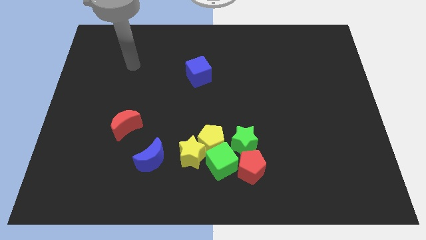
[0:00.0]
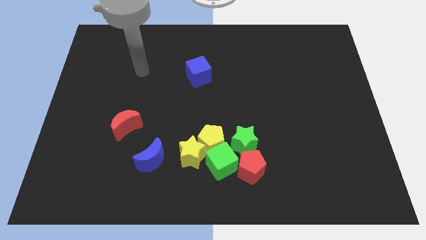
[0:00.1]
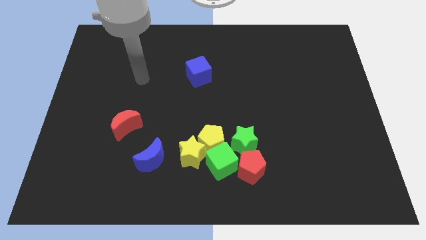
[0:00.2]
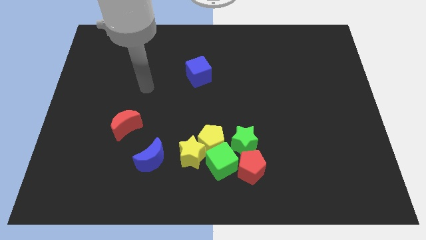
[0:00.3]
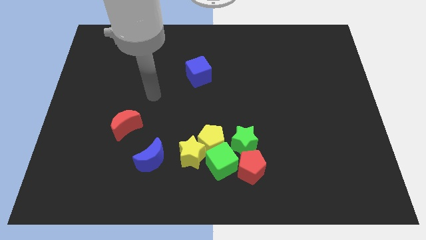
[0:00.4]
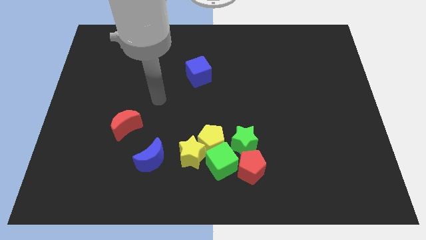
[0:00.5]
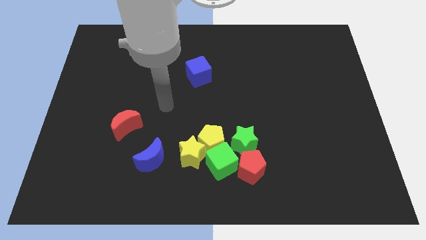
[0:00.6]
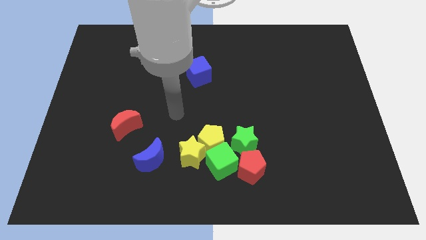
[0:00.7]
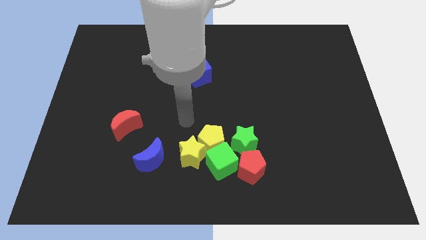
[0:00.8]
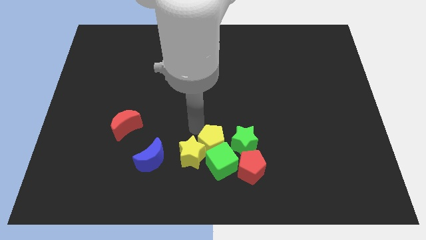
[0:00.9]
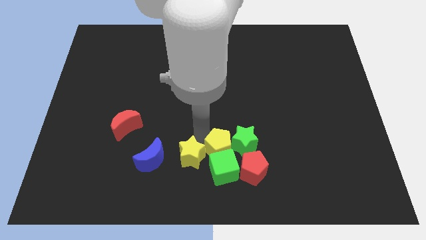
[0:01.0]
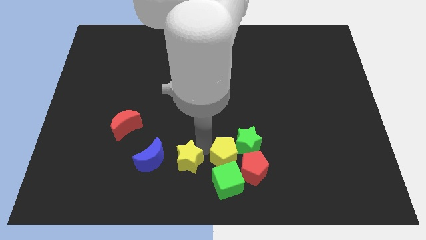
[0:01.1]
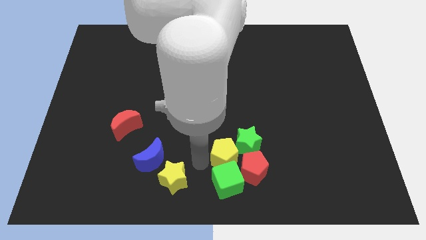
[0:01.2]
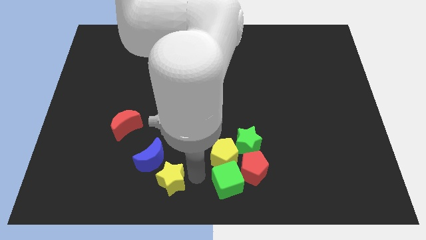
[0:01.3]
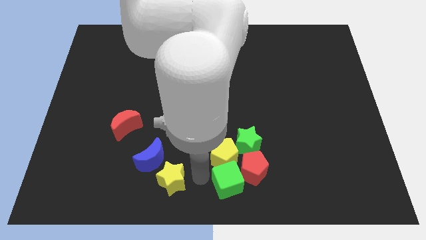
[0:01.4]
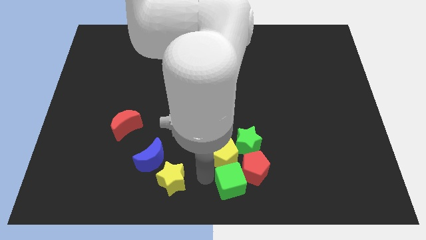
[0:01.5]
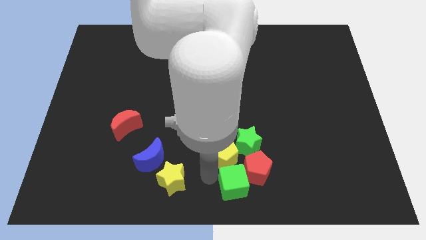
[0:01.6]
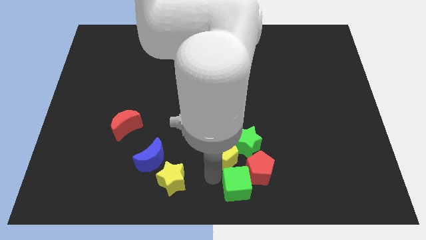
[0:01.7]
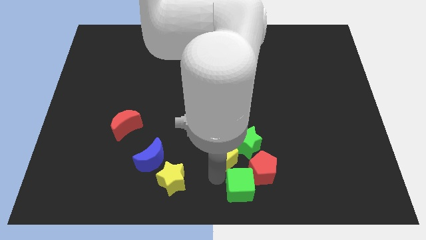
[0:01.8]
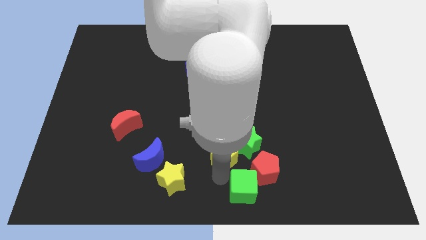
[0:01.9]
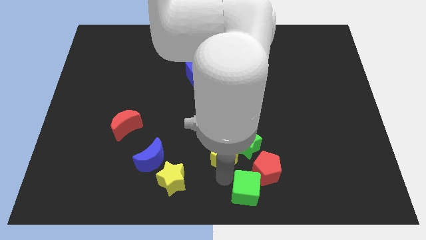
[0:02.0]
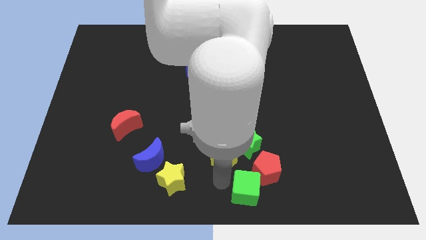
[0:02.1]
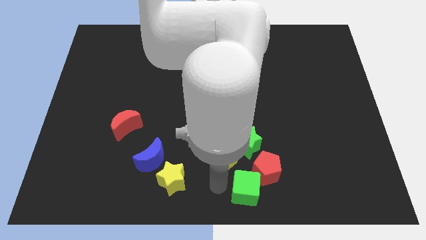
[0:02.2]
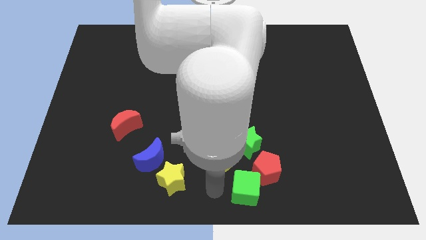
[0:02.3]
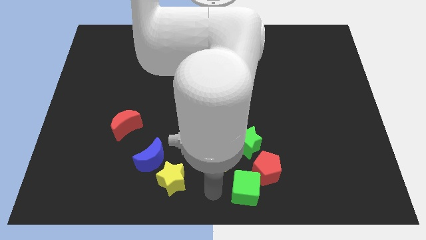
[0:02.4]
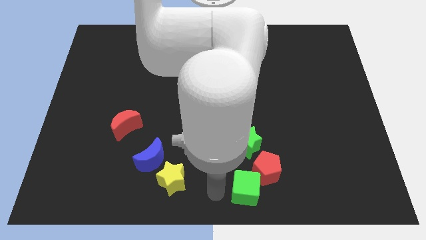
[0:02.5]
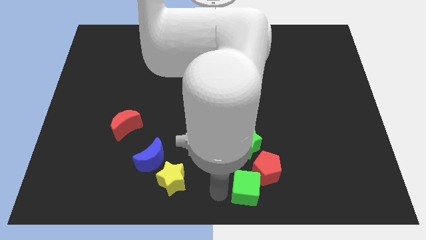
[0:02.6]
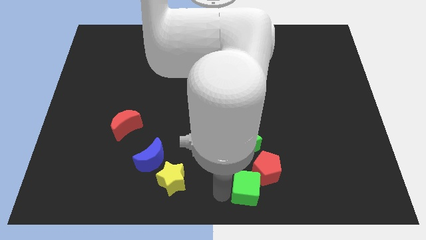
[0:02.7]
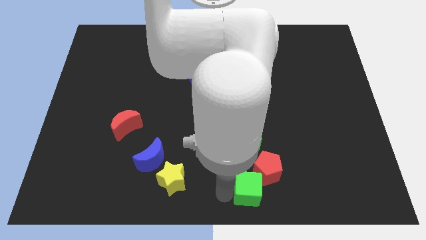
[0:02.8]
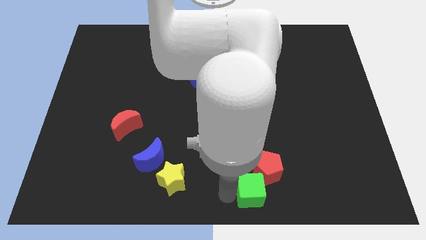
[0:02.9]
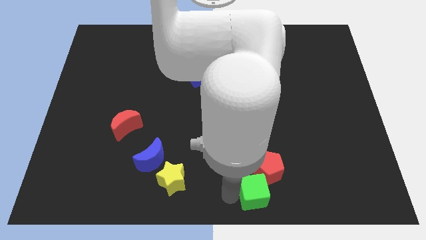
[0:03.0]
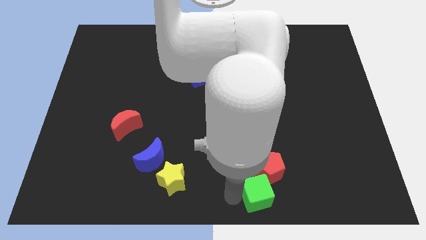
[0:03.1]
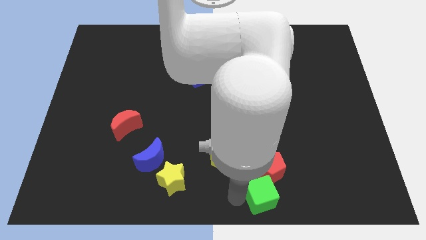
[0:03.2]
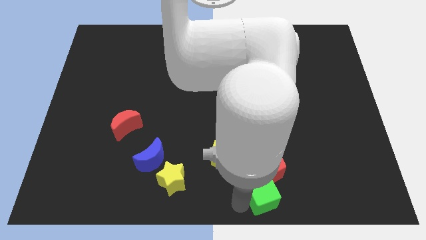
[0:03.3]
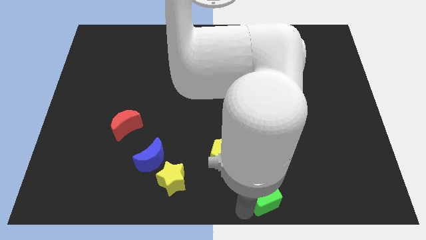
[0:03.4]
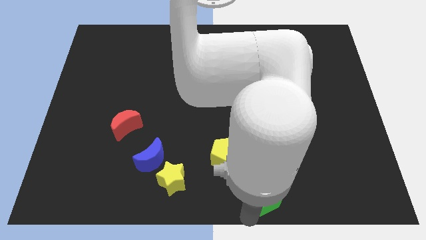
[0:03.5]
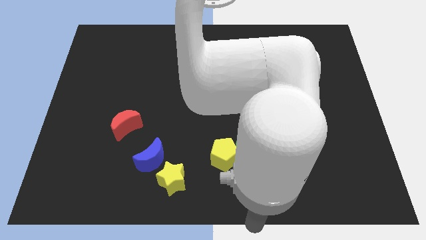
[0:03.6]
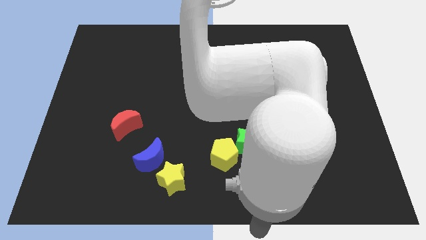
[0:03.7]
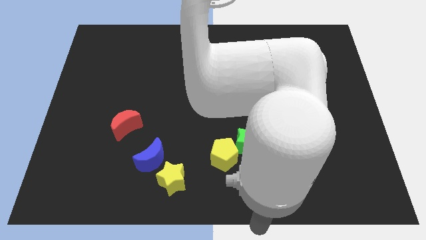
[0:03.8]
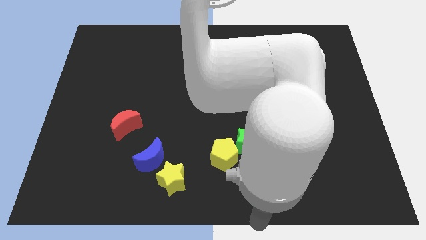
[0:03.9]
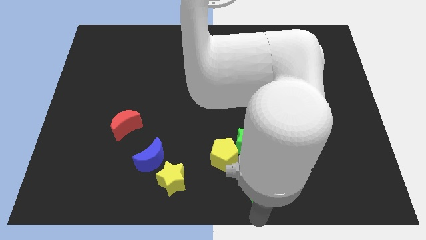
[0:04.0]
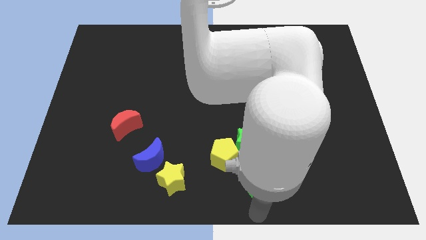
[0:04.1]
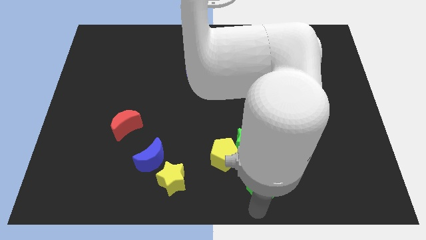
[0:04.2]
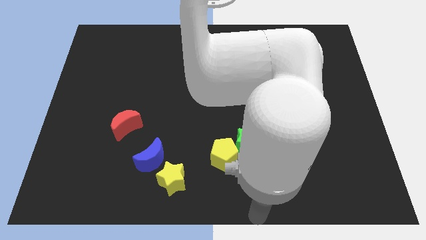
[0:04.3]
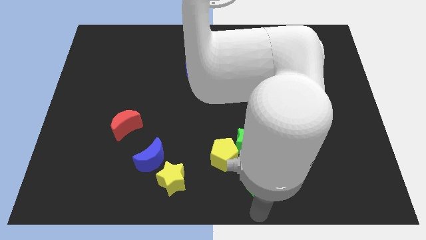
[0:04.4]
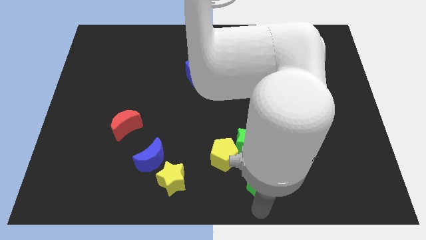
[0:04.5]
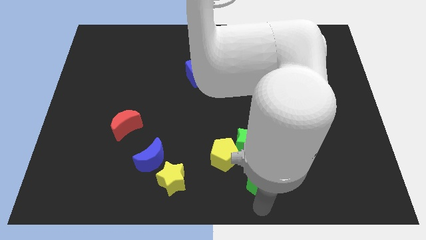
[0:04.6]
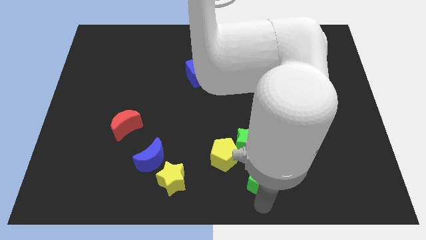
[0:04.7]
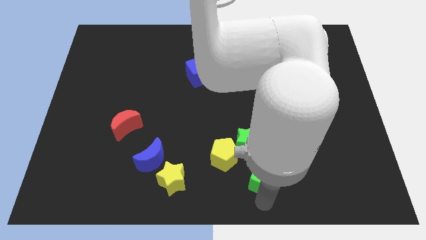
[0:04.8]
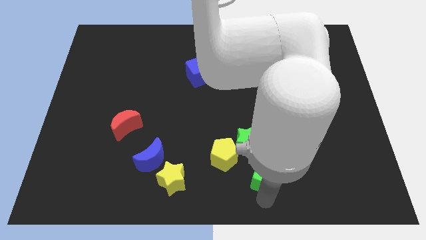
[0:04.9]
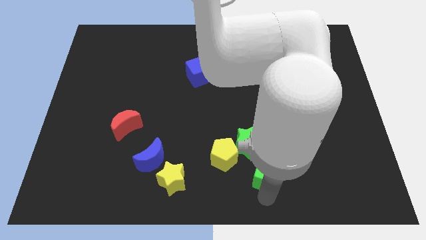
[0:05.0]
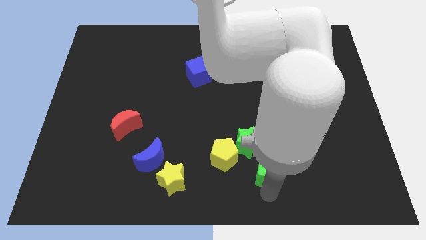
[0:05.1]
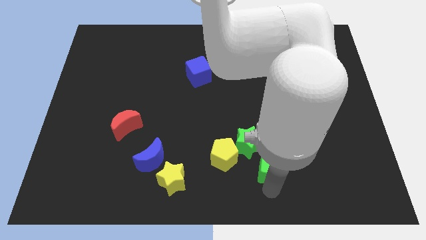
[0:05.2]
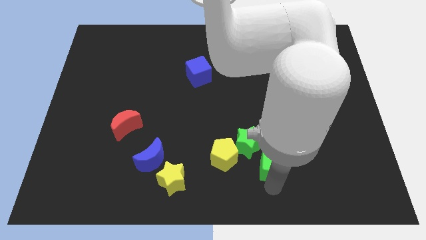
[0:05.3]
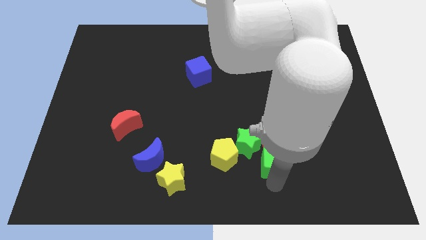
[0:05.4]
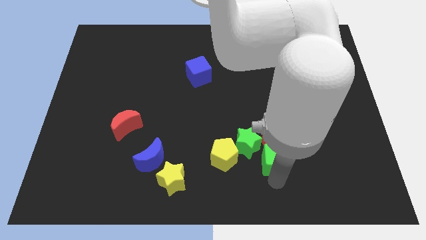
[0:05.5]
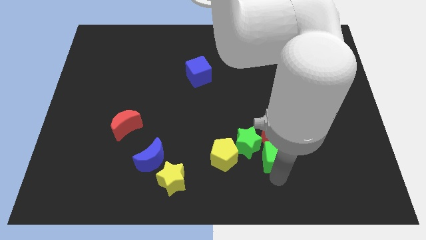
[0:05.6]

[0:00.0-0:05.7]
slightly slide the green cube diagonally up and to the right

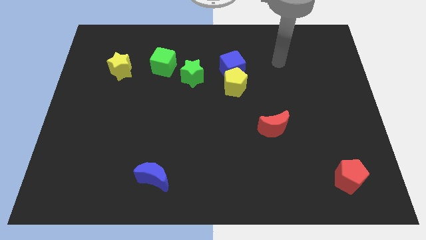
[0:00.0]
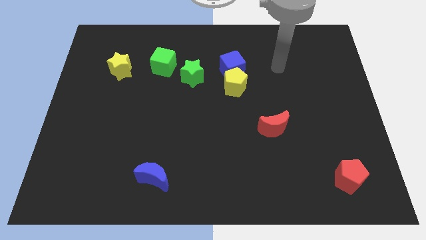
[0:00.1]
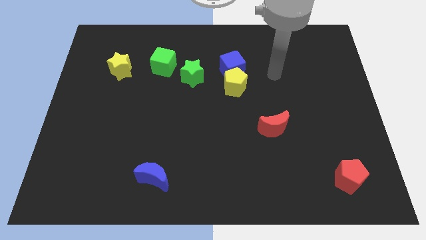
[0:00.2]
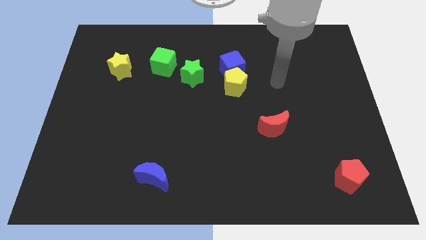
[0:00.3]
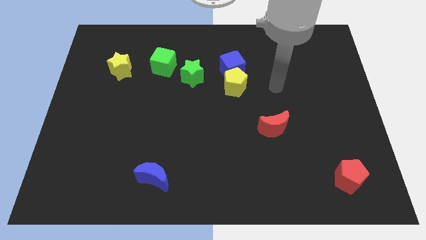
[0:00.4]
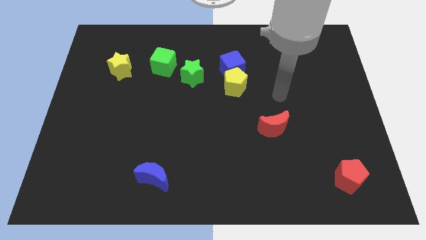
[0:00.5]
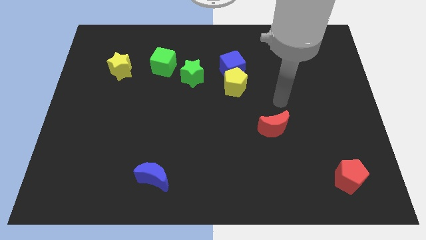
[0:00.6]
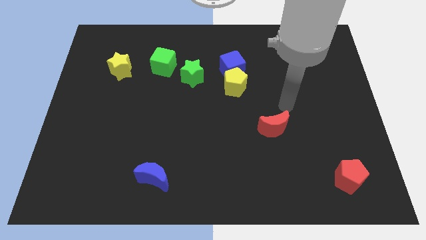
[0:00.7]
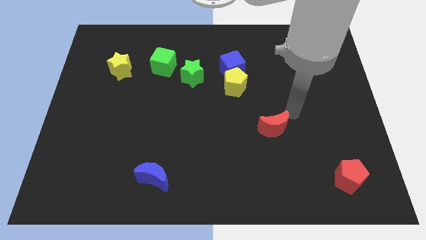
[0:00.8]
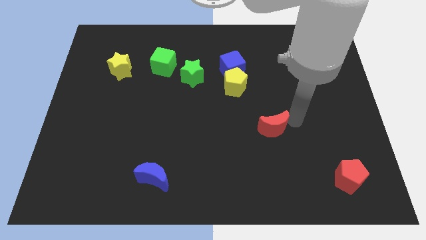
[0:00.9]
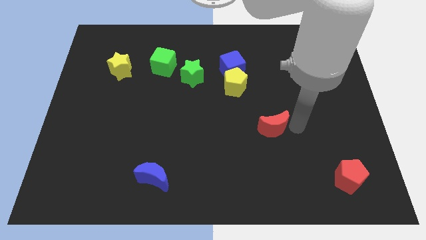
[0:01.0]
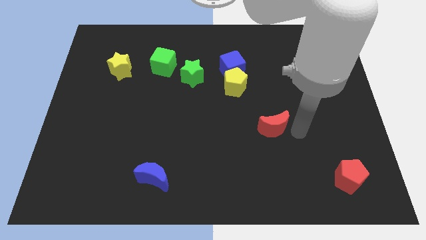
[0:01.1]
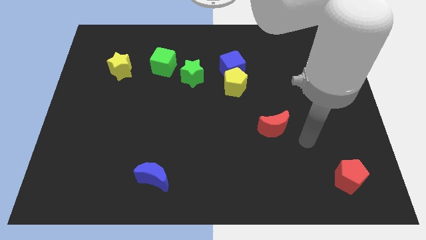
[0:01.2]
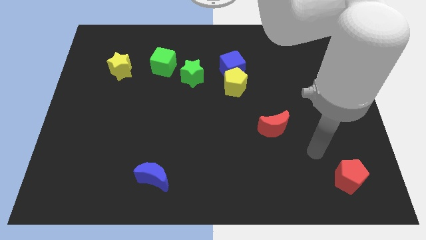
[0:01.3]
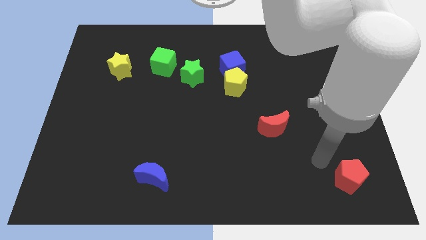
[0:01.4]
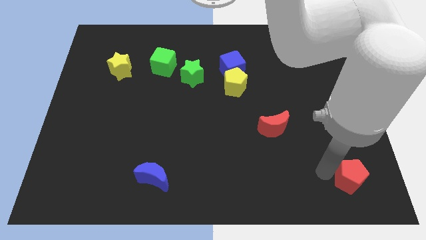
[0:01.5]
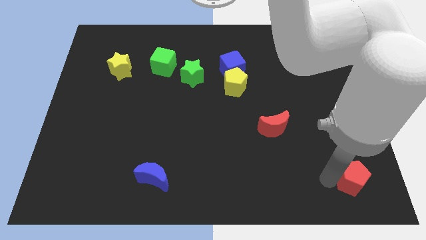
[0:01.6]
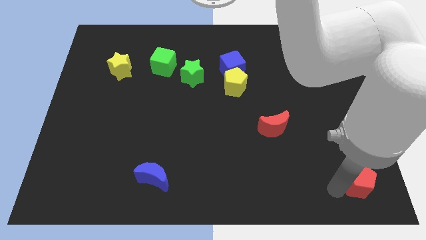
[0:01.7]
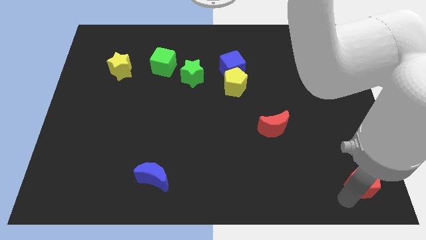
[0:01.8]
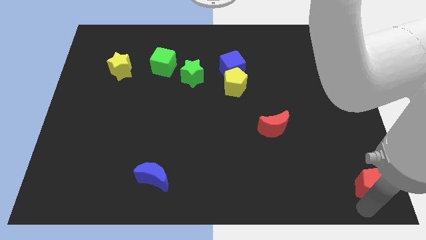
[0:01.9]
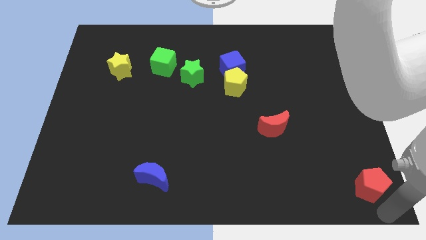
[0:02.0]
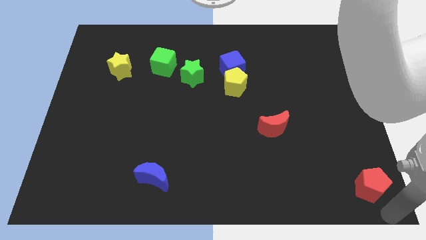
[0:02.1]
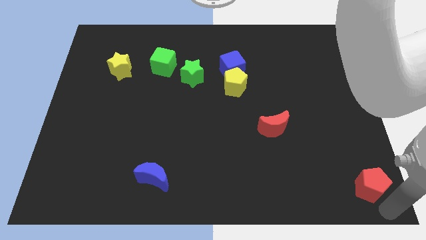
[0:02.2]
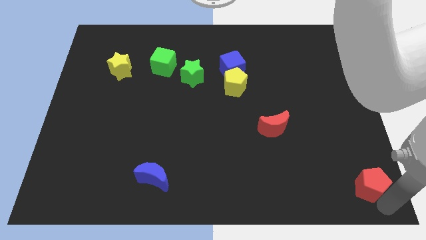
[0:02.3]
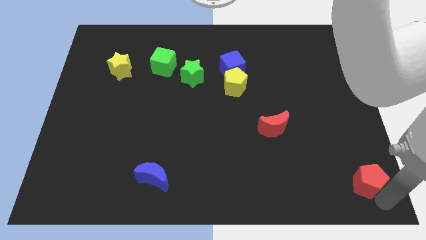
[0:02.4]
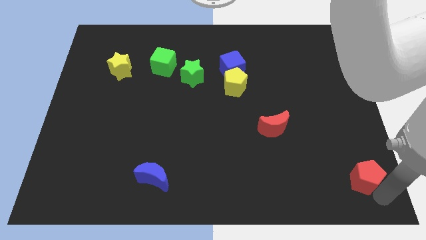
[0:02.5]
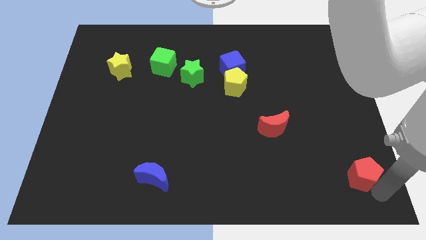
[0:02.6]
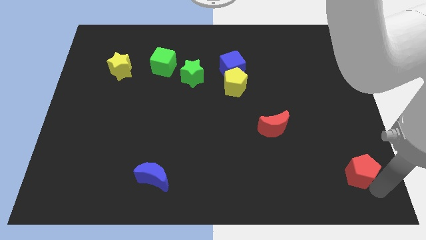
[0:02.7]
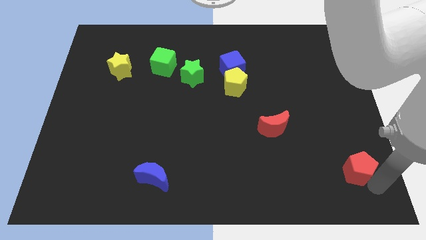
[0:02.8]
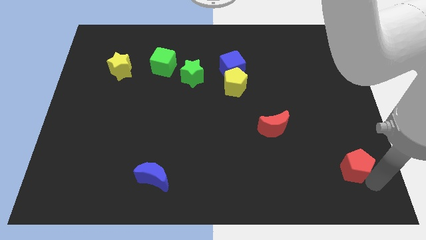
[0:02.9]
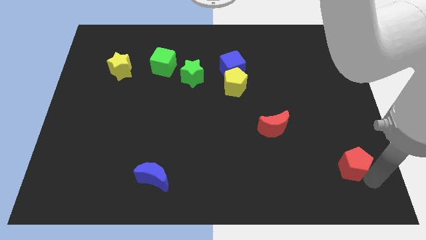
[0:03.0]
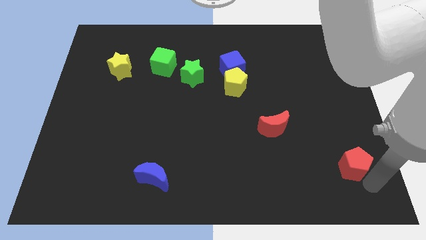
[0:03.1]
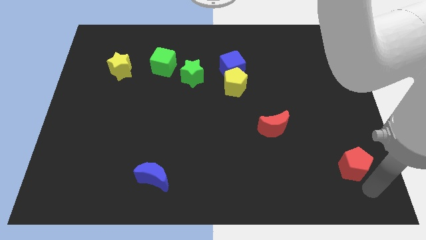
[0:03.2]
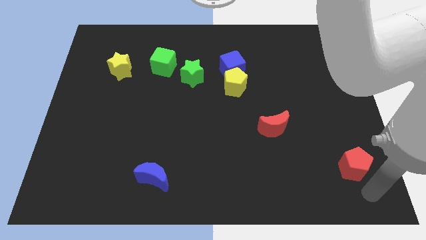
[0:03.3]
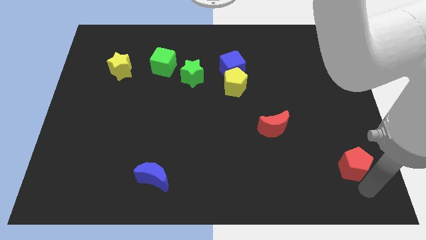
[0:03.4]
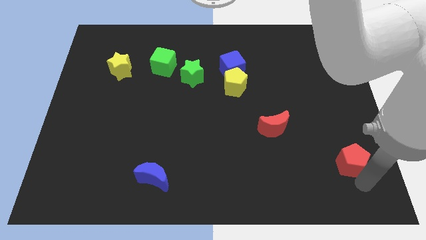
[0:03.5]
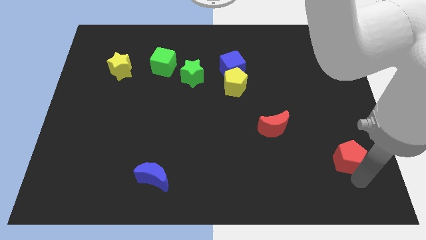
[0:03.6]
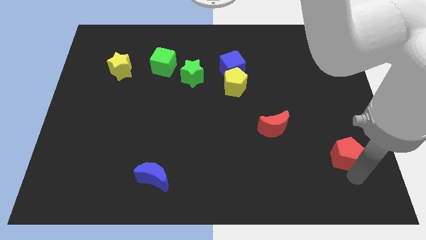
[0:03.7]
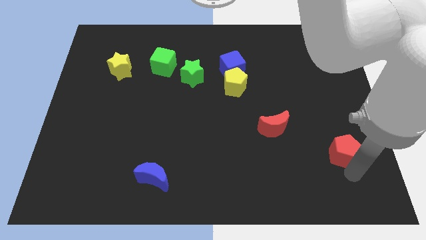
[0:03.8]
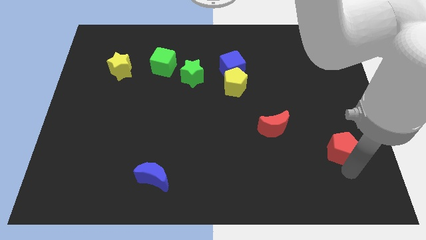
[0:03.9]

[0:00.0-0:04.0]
slightly move the red pentagon up
